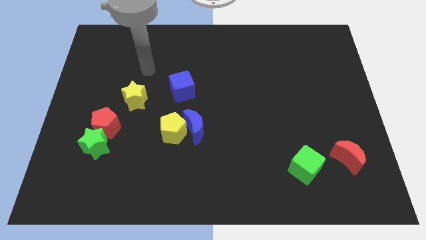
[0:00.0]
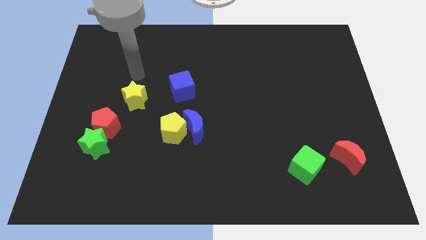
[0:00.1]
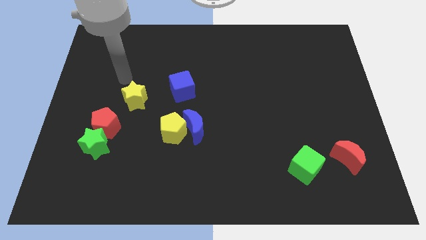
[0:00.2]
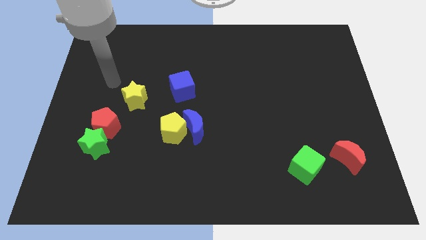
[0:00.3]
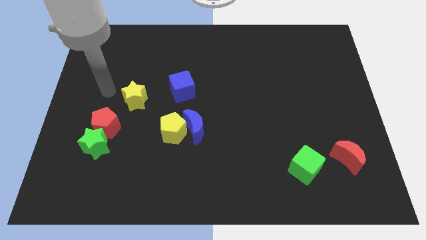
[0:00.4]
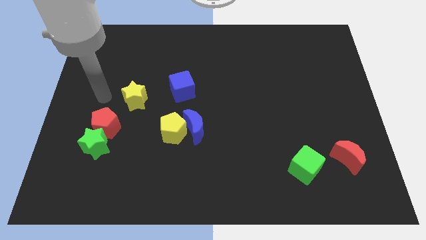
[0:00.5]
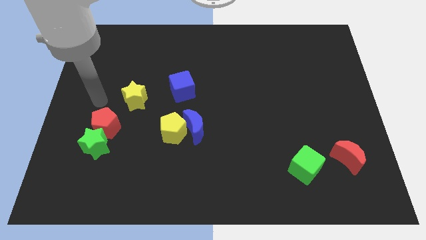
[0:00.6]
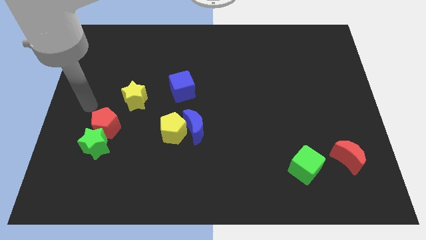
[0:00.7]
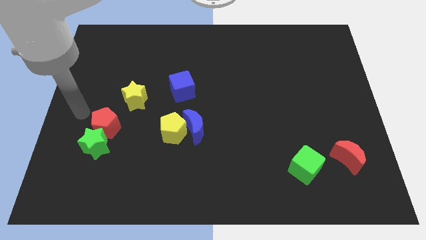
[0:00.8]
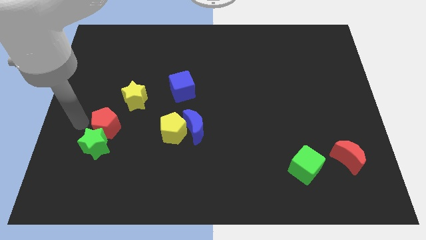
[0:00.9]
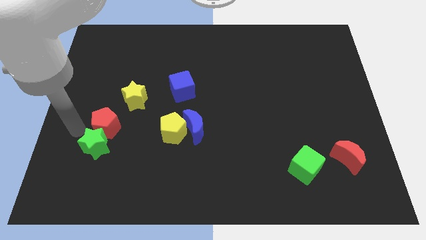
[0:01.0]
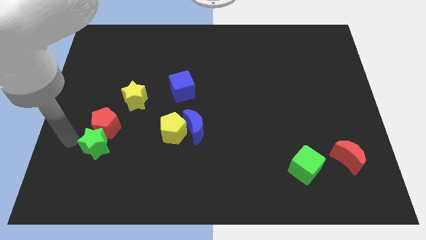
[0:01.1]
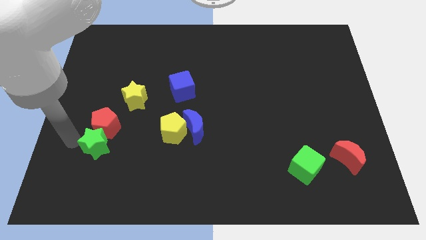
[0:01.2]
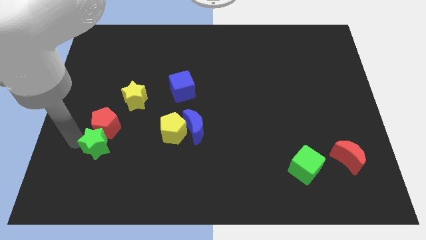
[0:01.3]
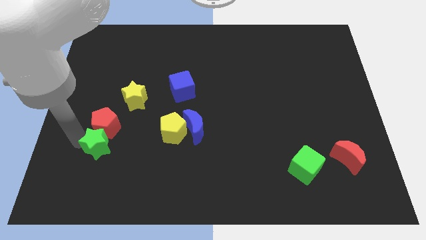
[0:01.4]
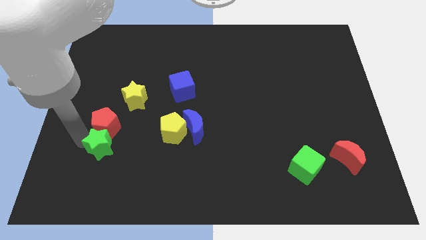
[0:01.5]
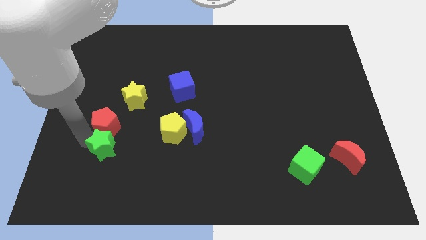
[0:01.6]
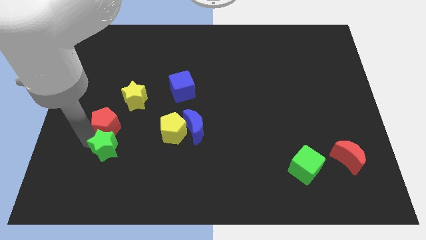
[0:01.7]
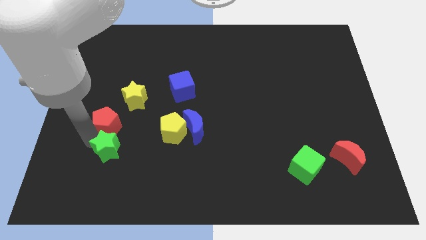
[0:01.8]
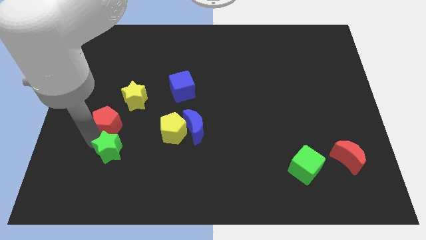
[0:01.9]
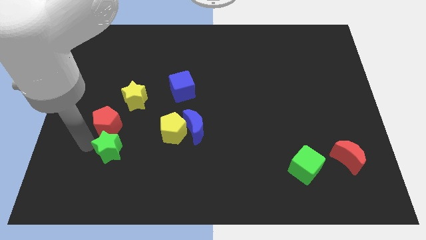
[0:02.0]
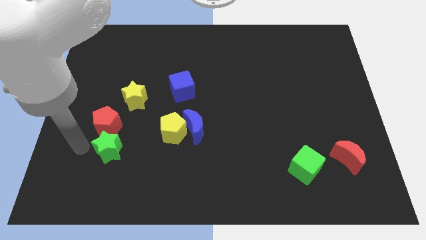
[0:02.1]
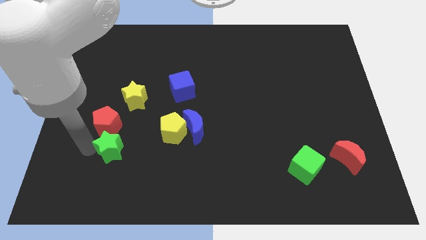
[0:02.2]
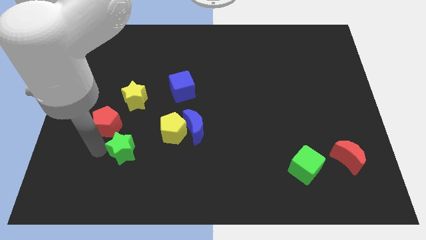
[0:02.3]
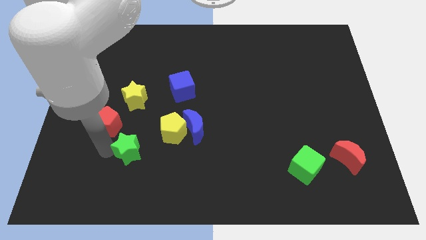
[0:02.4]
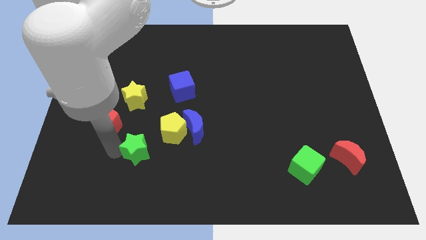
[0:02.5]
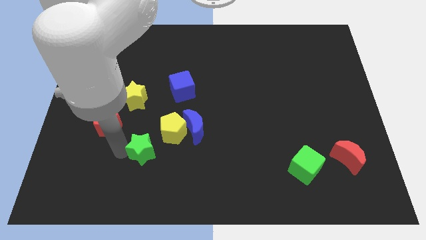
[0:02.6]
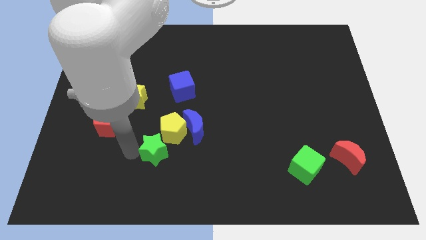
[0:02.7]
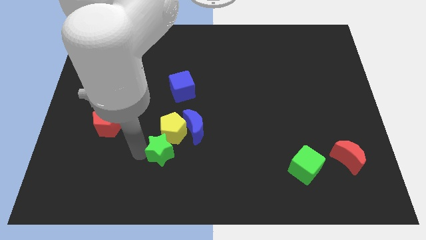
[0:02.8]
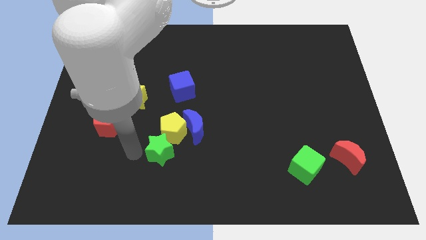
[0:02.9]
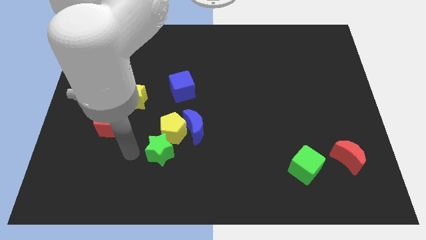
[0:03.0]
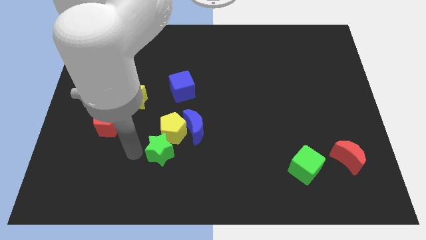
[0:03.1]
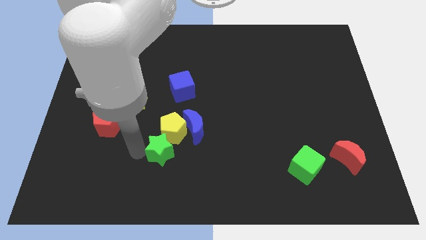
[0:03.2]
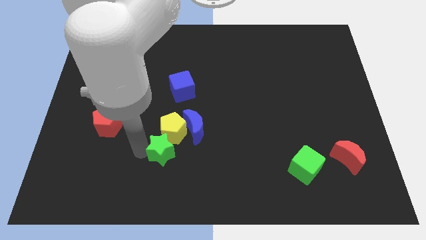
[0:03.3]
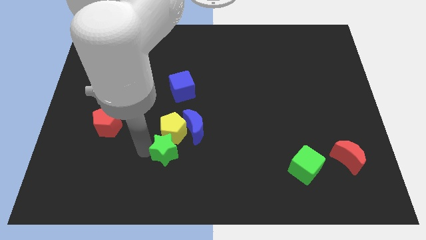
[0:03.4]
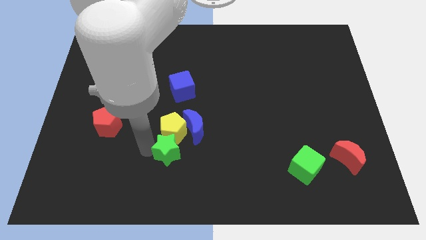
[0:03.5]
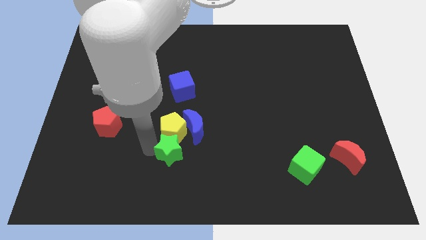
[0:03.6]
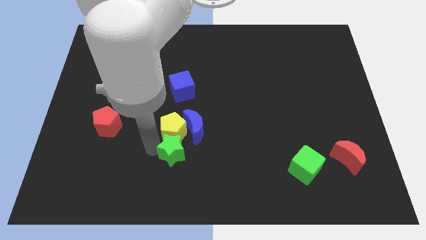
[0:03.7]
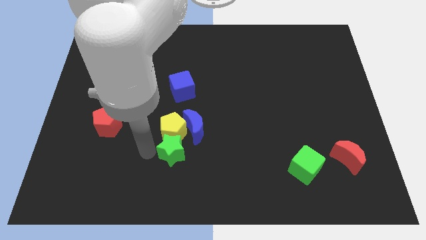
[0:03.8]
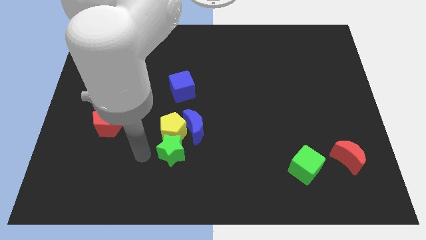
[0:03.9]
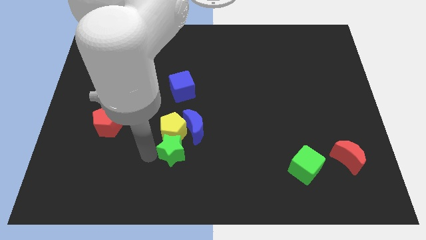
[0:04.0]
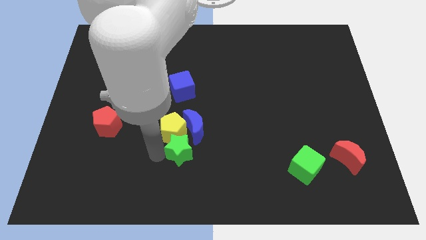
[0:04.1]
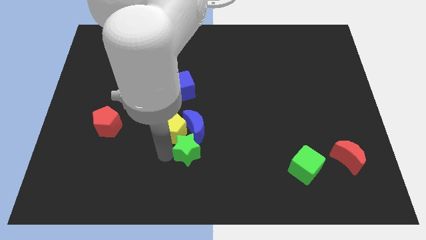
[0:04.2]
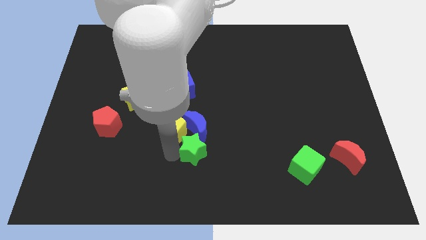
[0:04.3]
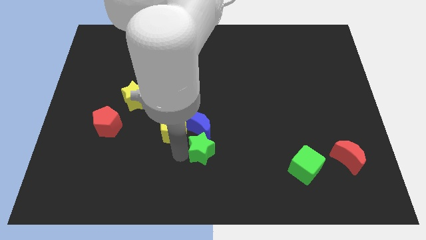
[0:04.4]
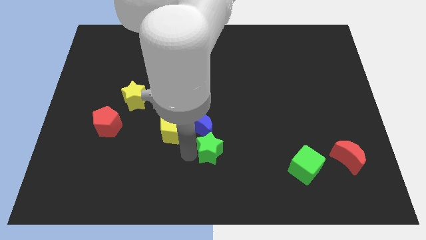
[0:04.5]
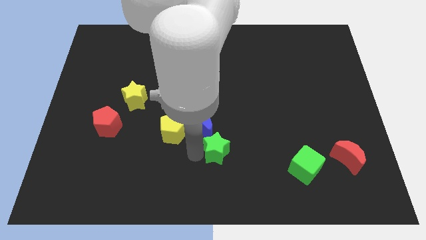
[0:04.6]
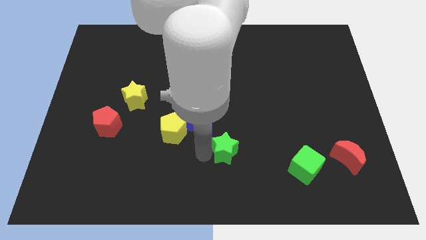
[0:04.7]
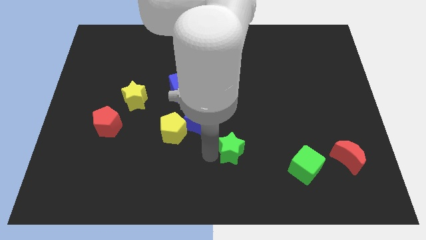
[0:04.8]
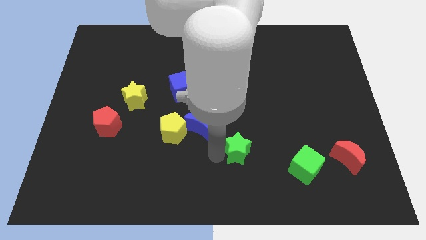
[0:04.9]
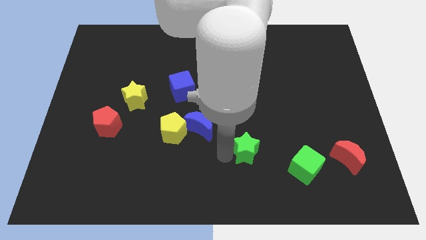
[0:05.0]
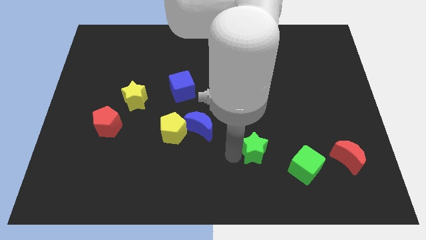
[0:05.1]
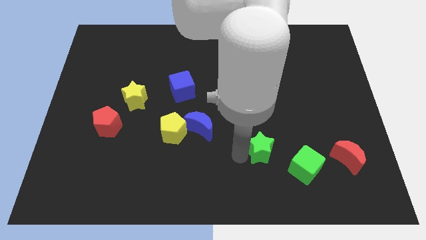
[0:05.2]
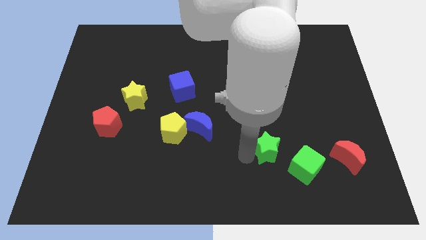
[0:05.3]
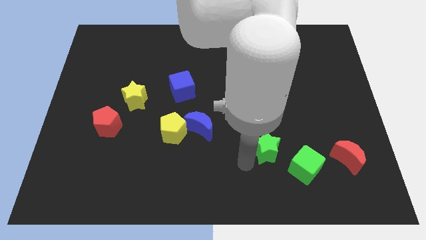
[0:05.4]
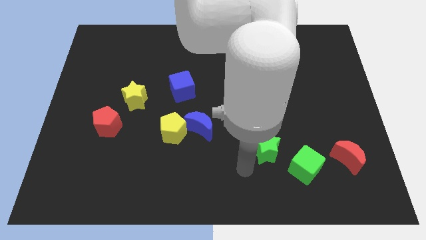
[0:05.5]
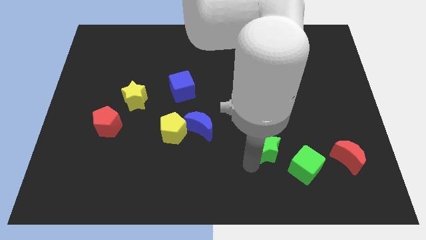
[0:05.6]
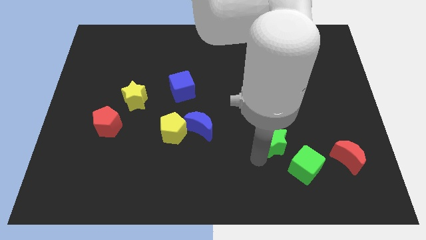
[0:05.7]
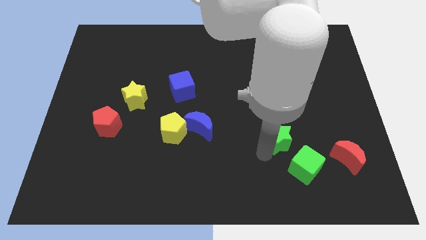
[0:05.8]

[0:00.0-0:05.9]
slide the green star above the green cube

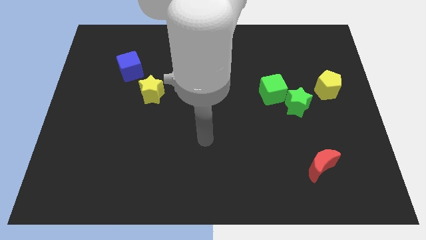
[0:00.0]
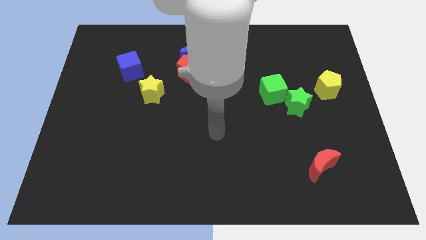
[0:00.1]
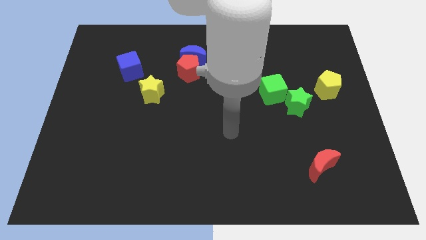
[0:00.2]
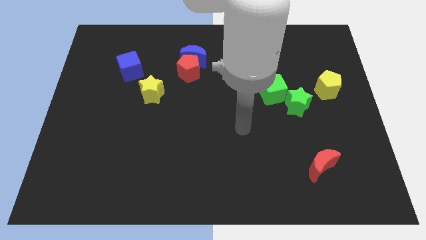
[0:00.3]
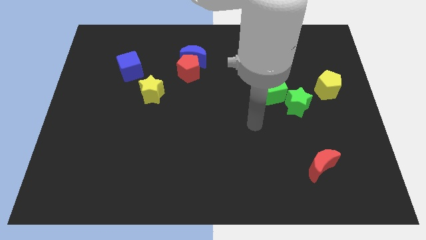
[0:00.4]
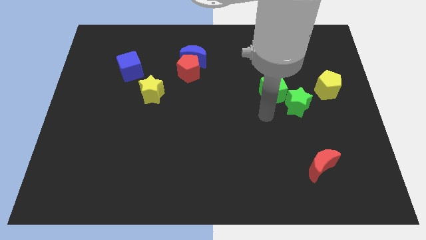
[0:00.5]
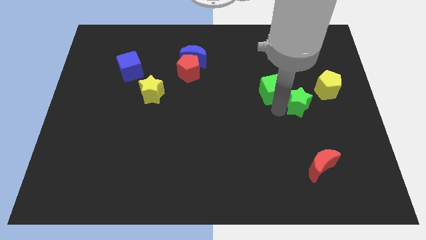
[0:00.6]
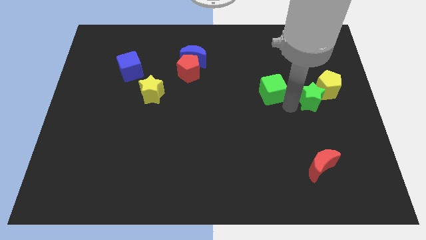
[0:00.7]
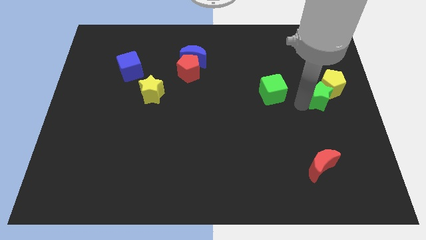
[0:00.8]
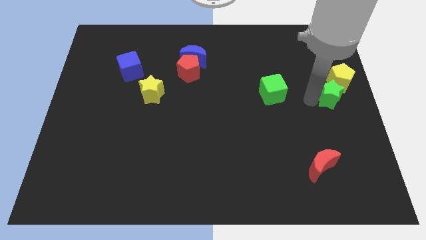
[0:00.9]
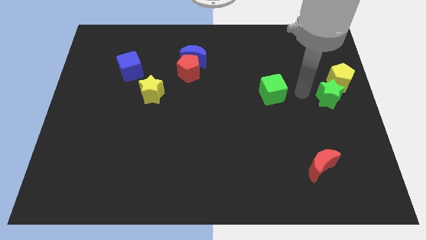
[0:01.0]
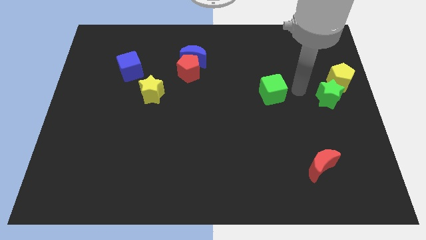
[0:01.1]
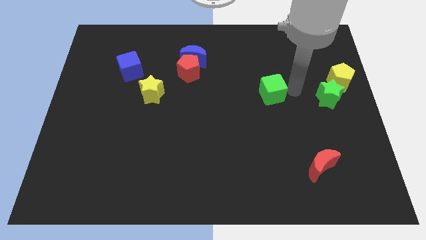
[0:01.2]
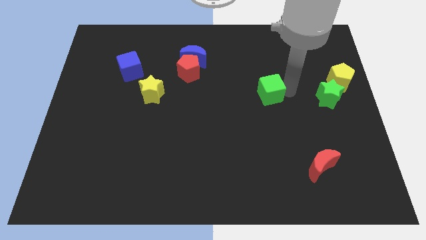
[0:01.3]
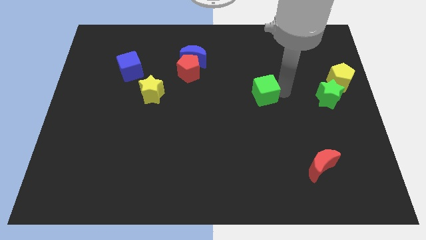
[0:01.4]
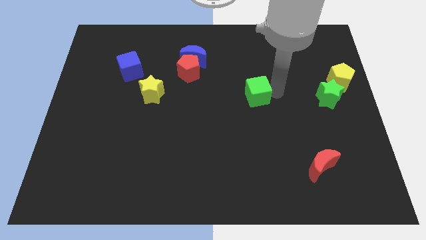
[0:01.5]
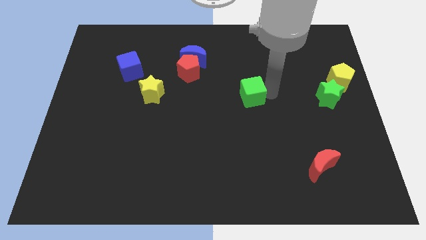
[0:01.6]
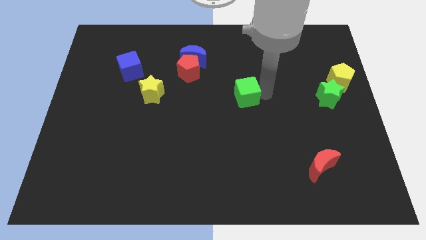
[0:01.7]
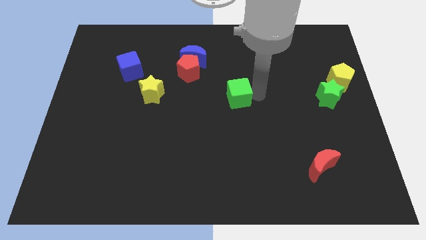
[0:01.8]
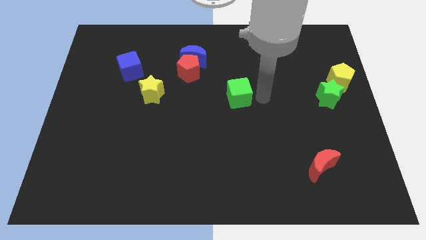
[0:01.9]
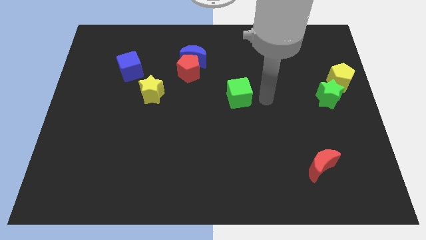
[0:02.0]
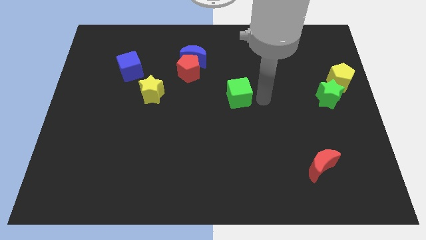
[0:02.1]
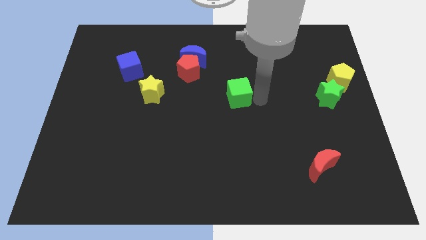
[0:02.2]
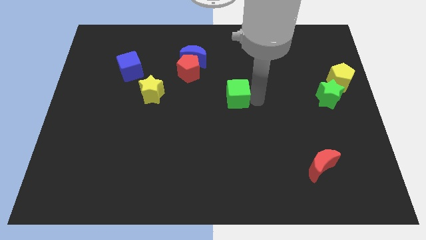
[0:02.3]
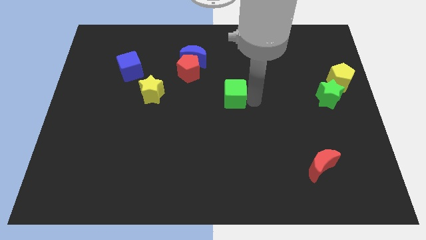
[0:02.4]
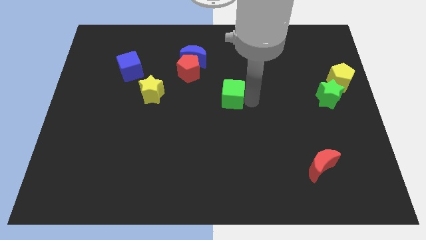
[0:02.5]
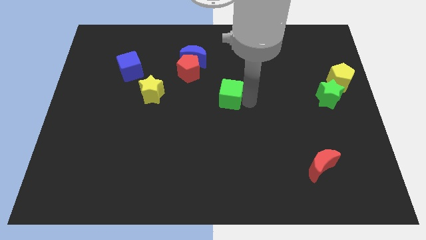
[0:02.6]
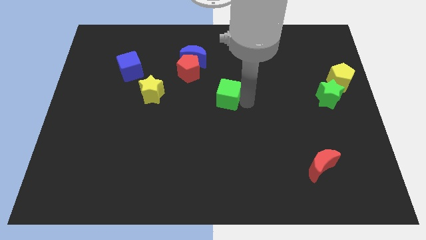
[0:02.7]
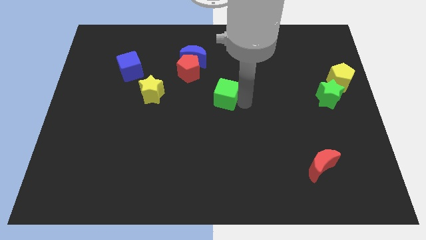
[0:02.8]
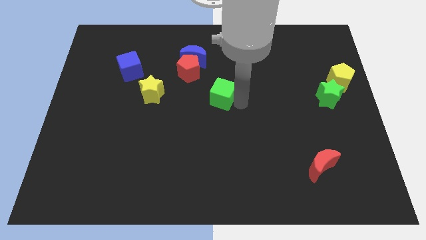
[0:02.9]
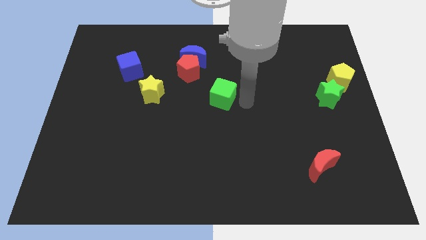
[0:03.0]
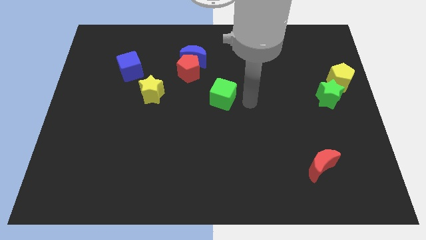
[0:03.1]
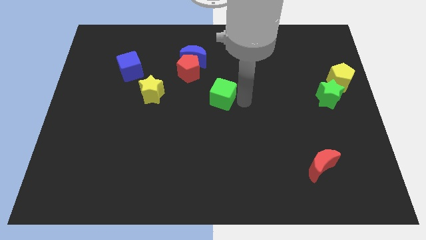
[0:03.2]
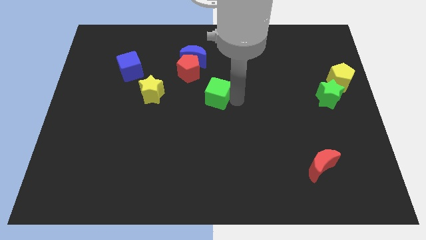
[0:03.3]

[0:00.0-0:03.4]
slide the green cube right of the yellow star
